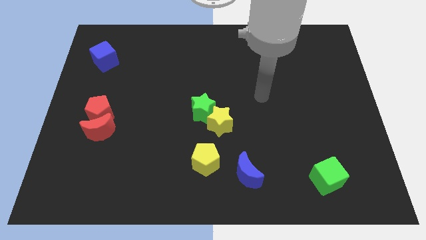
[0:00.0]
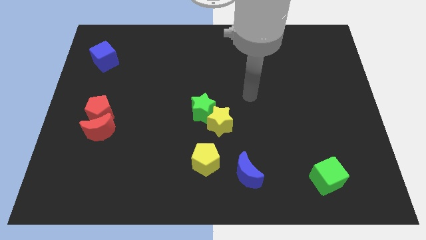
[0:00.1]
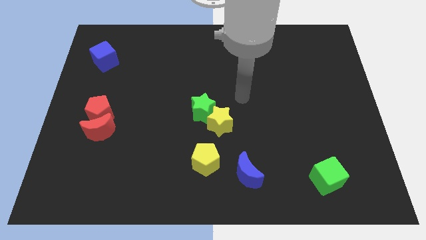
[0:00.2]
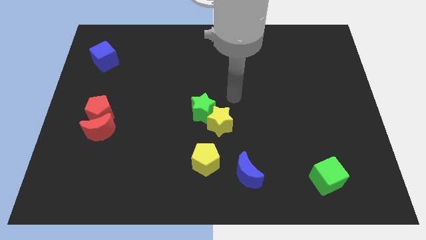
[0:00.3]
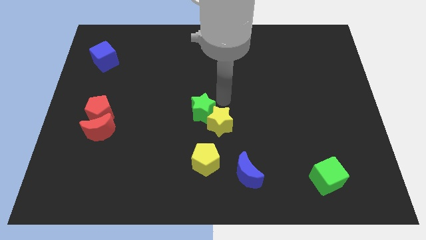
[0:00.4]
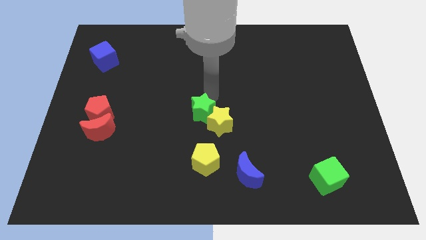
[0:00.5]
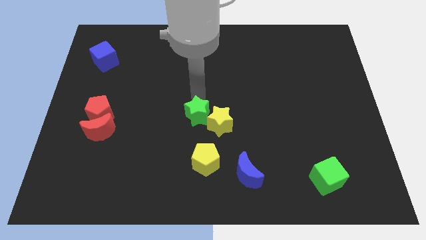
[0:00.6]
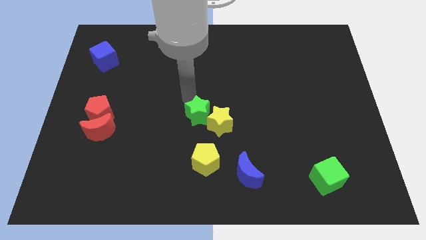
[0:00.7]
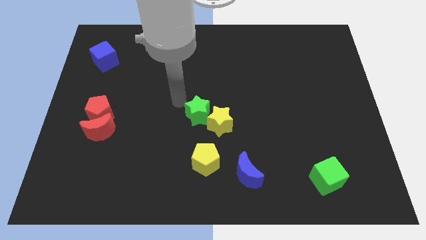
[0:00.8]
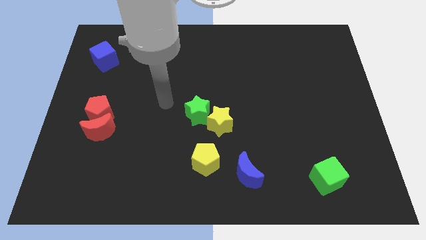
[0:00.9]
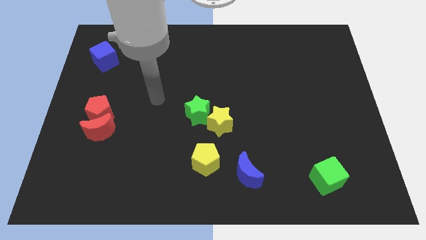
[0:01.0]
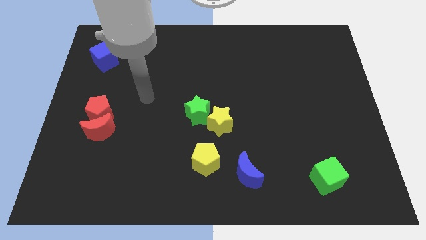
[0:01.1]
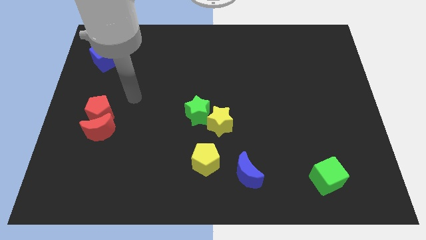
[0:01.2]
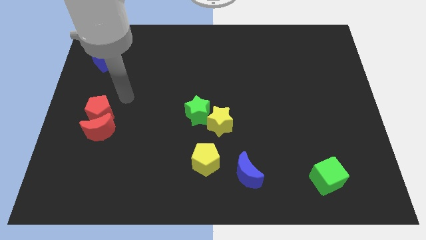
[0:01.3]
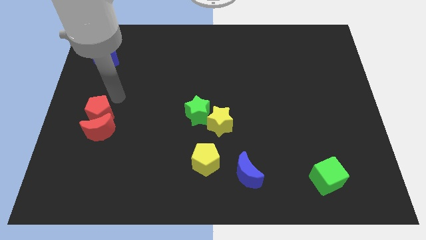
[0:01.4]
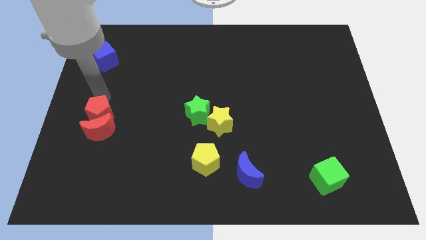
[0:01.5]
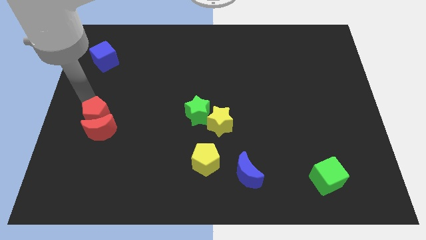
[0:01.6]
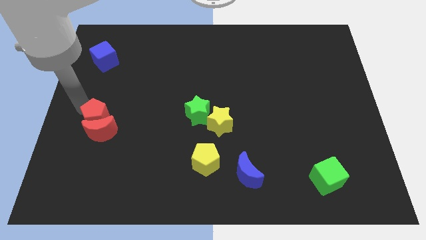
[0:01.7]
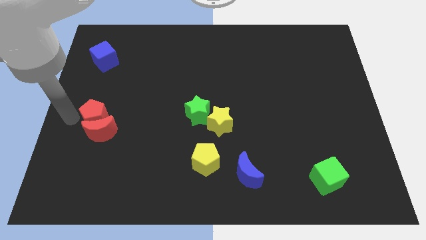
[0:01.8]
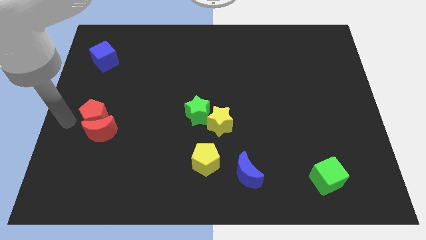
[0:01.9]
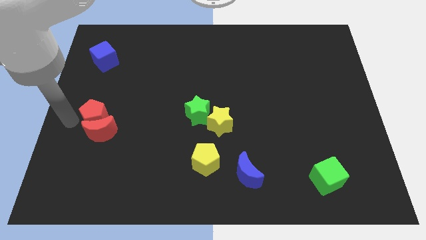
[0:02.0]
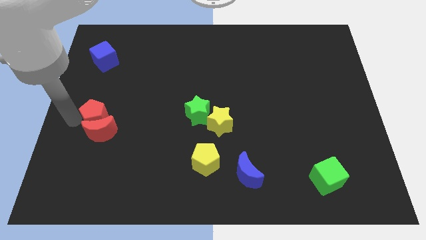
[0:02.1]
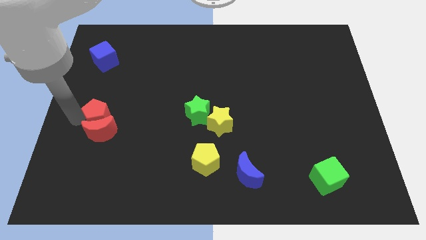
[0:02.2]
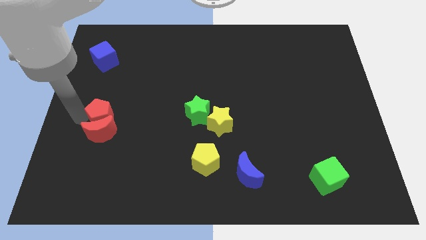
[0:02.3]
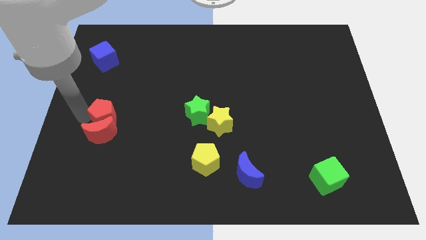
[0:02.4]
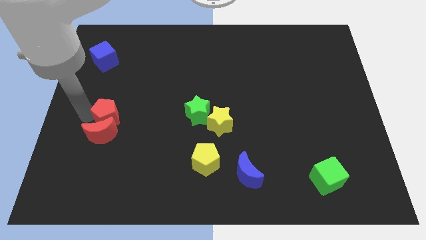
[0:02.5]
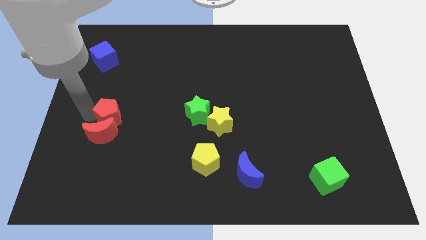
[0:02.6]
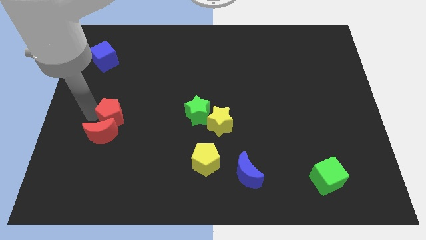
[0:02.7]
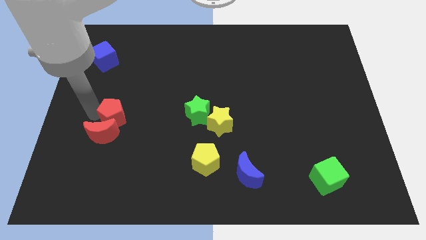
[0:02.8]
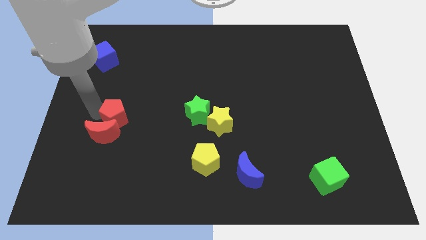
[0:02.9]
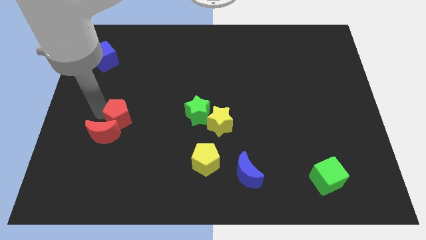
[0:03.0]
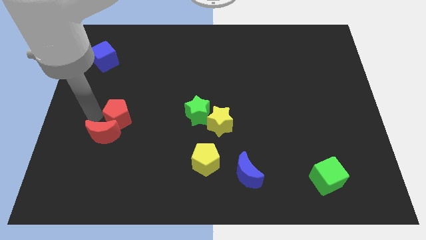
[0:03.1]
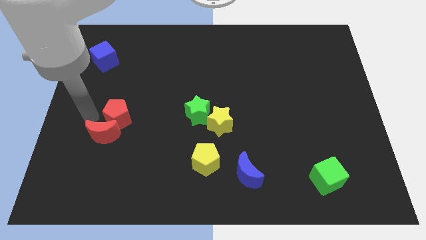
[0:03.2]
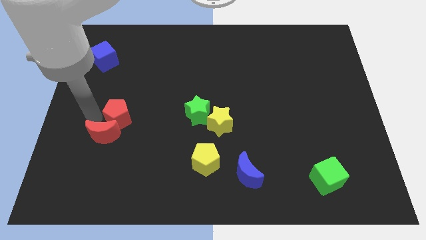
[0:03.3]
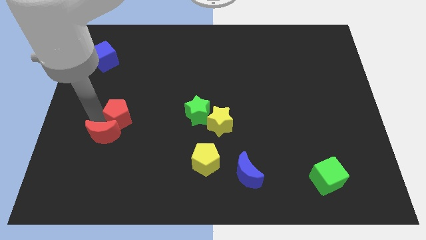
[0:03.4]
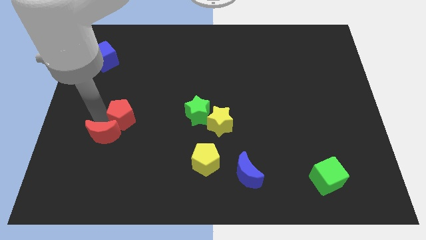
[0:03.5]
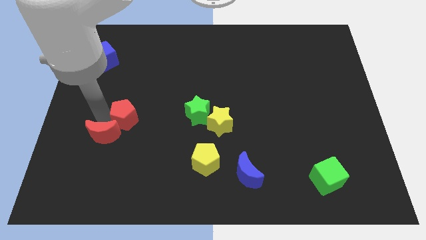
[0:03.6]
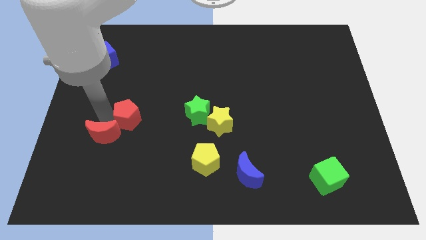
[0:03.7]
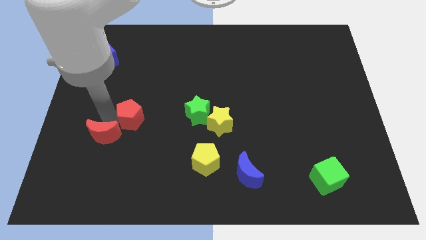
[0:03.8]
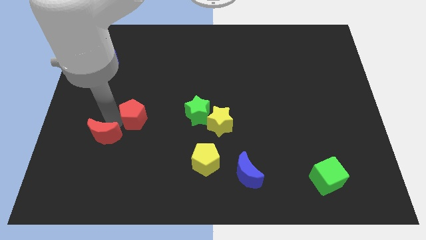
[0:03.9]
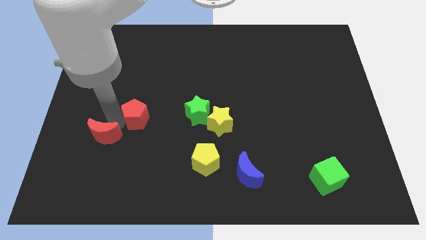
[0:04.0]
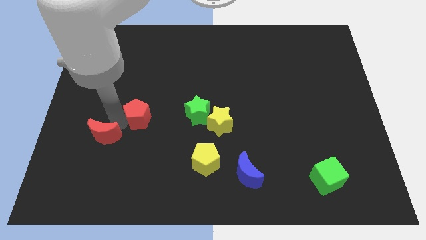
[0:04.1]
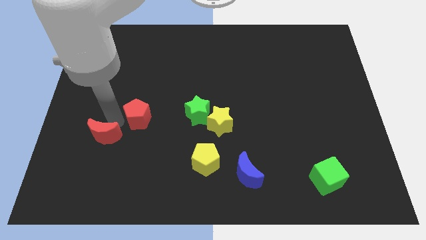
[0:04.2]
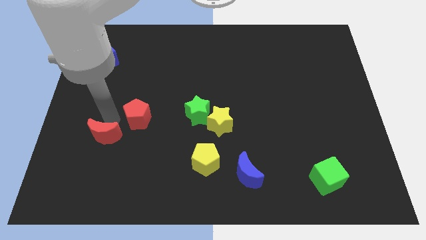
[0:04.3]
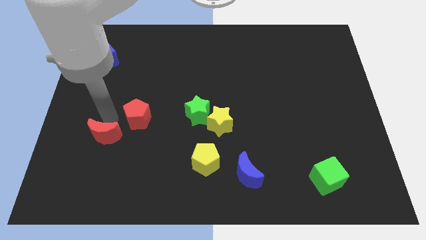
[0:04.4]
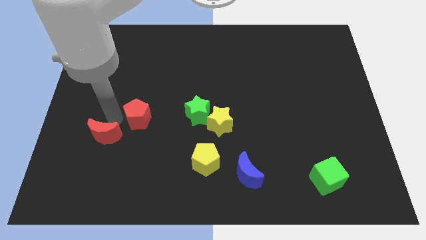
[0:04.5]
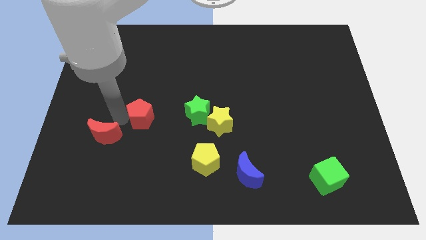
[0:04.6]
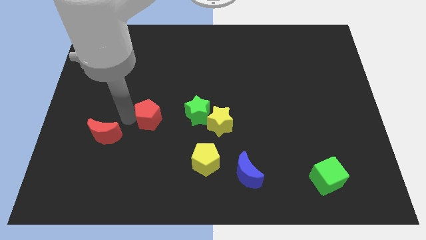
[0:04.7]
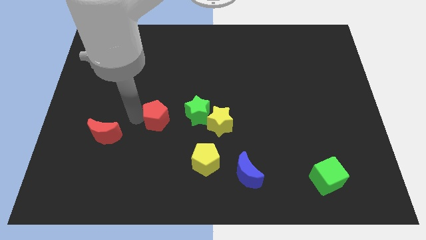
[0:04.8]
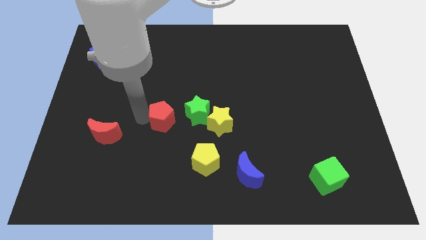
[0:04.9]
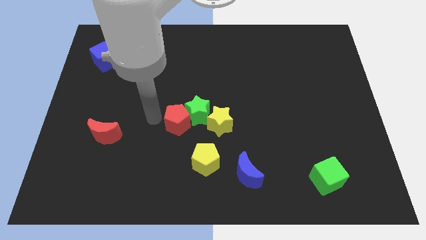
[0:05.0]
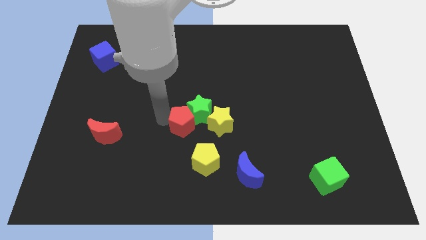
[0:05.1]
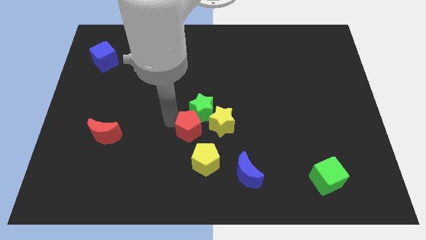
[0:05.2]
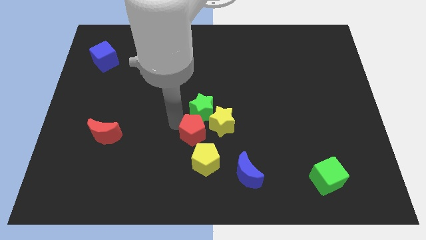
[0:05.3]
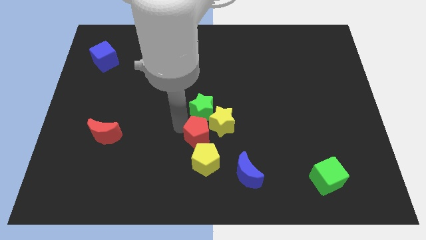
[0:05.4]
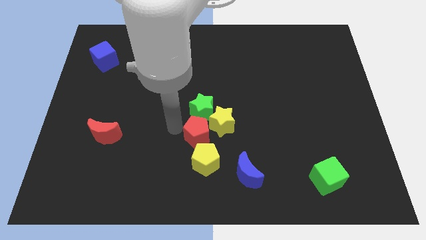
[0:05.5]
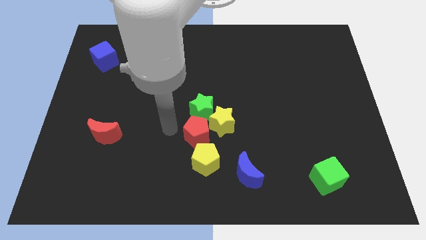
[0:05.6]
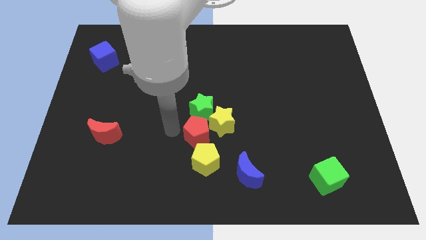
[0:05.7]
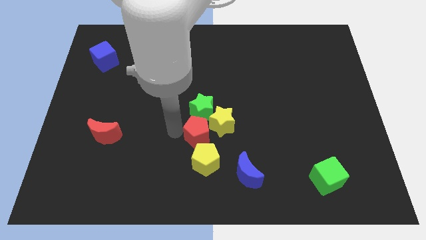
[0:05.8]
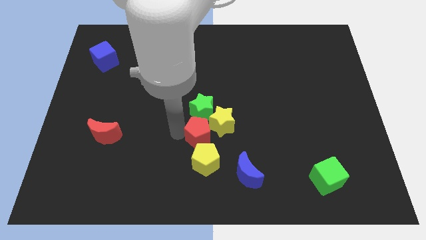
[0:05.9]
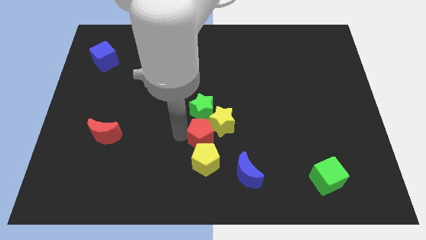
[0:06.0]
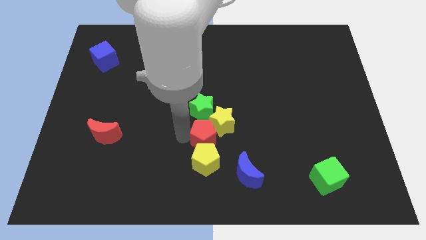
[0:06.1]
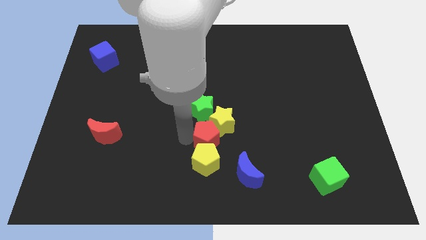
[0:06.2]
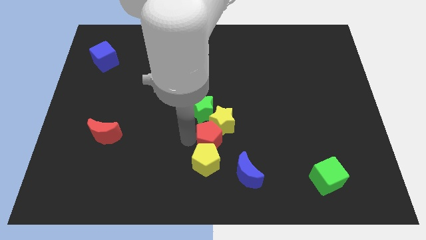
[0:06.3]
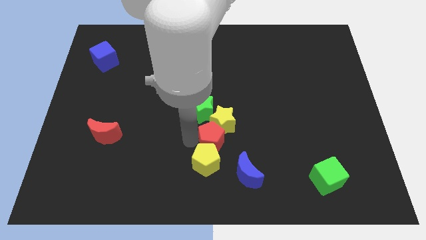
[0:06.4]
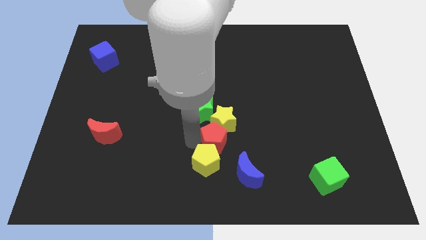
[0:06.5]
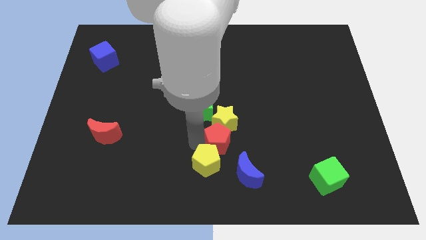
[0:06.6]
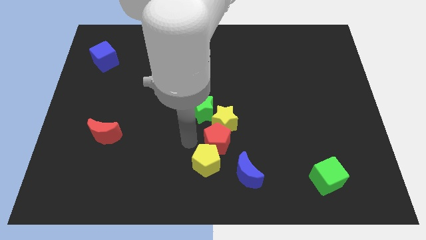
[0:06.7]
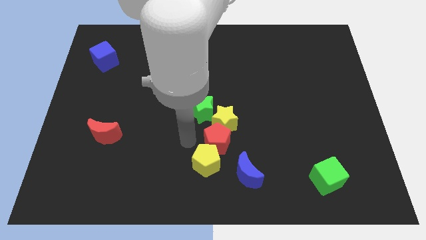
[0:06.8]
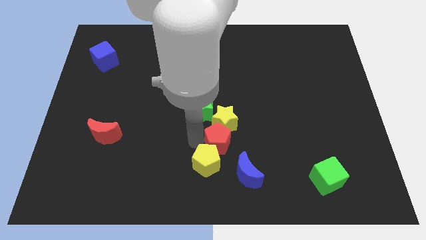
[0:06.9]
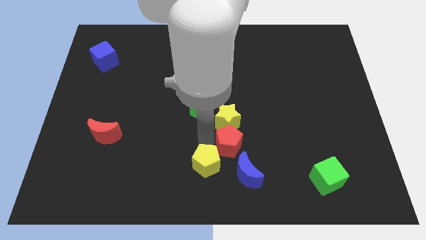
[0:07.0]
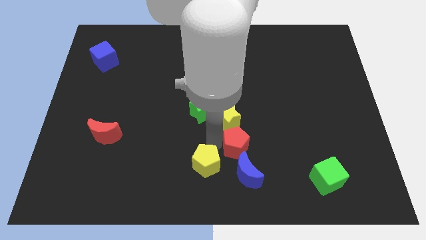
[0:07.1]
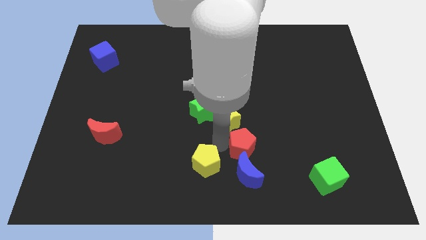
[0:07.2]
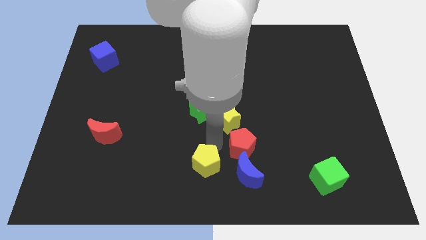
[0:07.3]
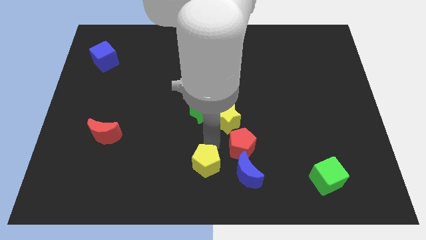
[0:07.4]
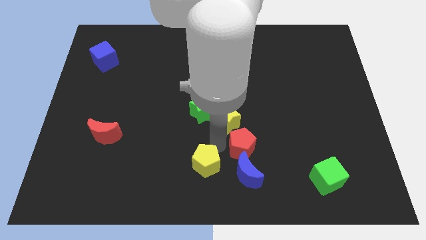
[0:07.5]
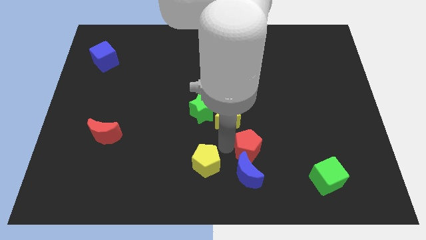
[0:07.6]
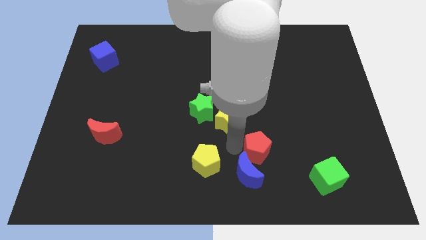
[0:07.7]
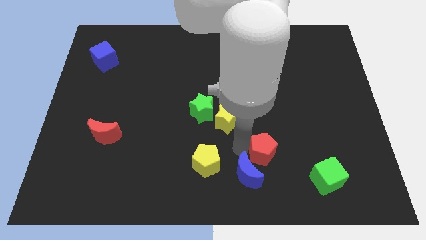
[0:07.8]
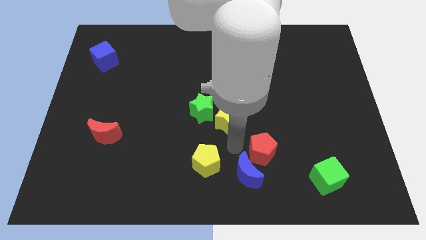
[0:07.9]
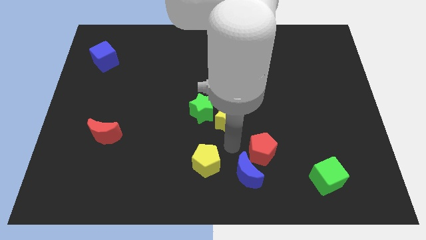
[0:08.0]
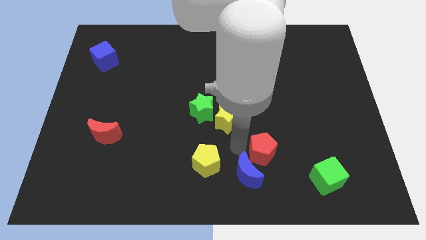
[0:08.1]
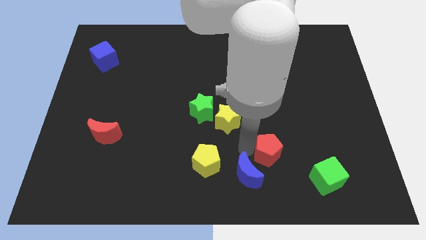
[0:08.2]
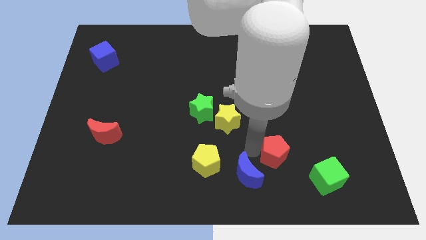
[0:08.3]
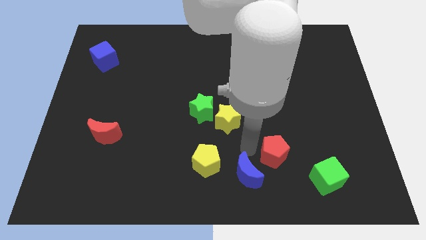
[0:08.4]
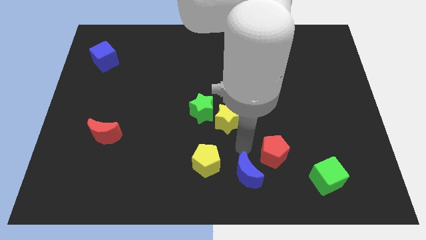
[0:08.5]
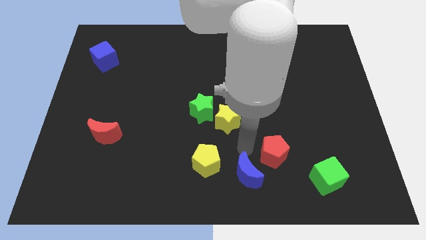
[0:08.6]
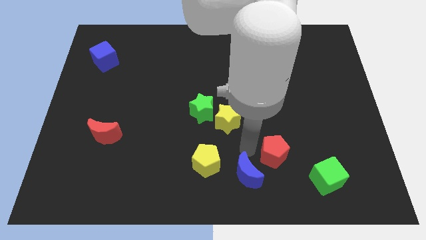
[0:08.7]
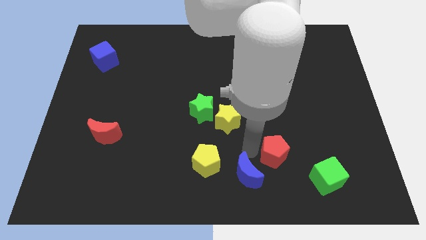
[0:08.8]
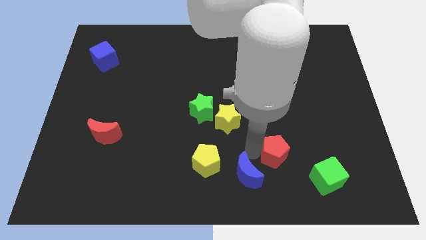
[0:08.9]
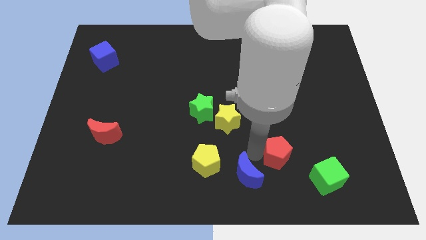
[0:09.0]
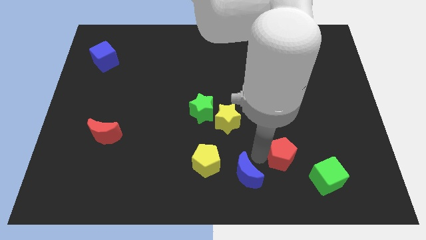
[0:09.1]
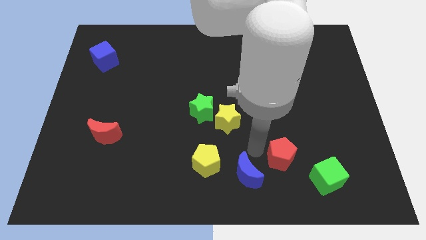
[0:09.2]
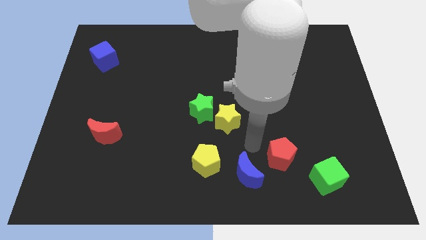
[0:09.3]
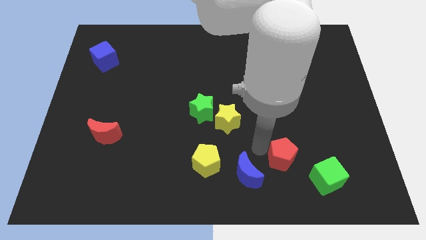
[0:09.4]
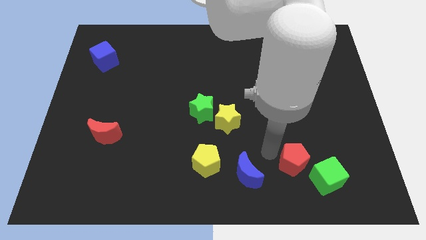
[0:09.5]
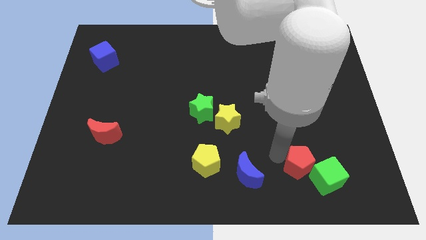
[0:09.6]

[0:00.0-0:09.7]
put the red pentagon towards the green cube
